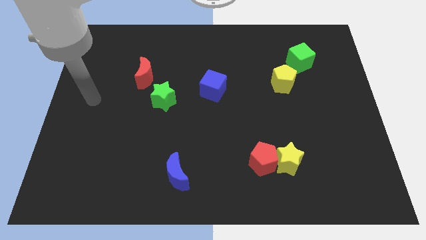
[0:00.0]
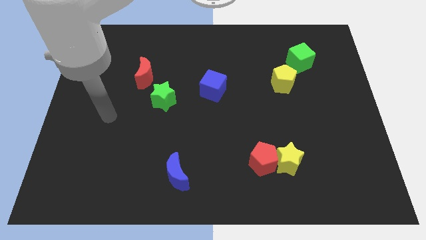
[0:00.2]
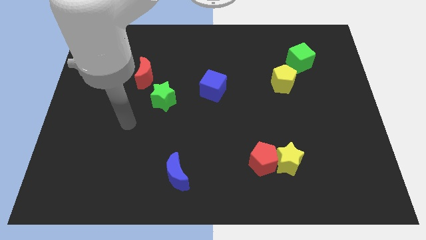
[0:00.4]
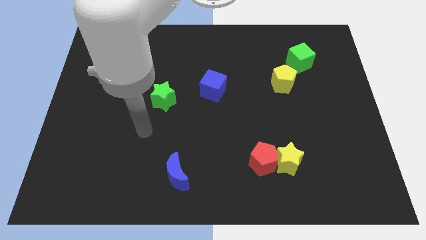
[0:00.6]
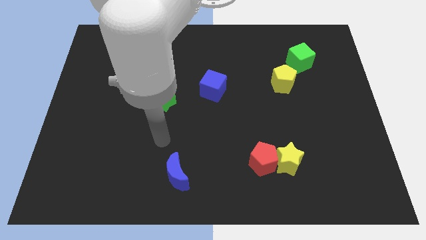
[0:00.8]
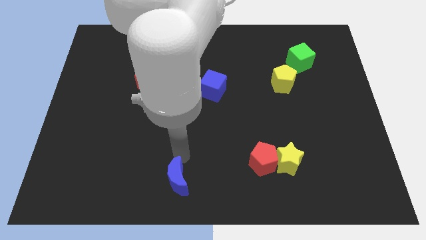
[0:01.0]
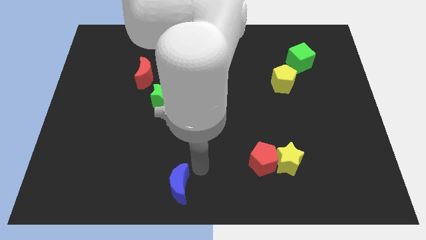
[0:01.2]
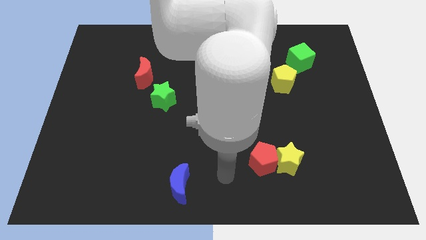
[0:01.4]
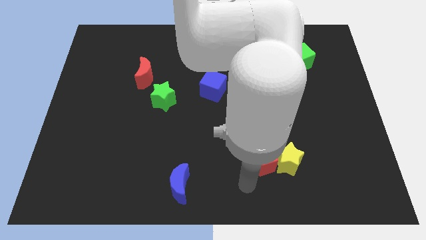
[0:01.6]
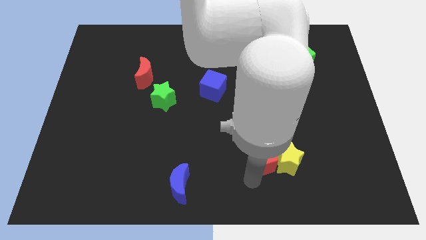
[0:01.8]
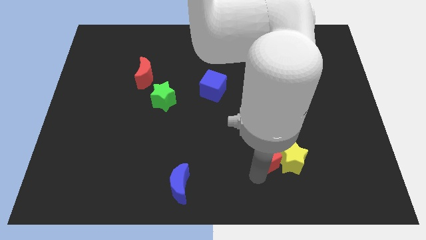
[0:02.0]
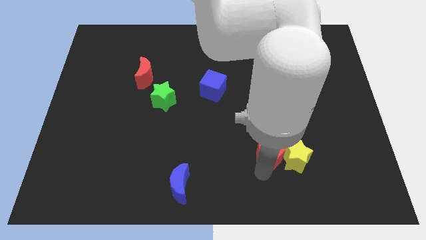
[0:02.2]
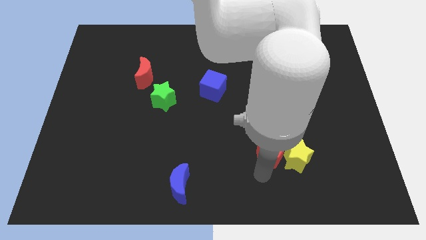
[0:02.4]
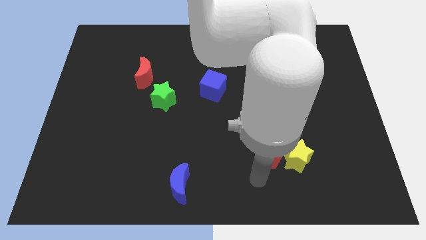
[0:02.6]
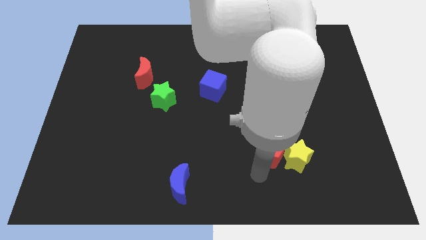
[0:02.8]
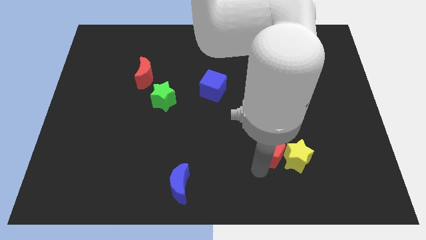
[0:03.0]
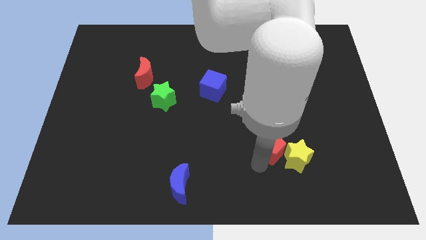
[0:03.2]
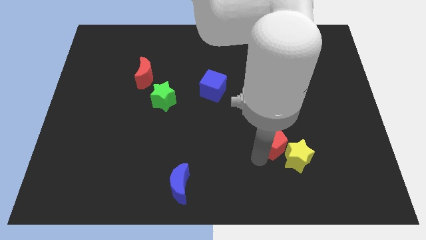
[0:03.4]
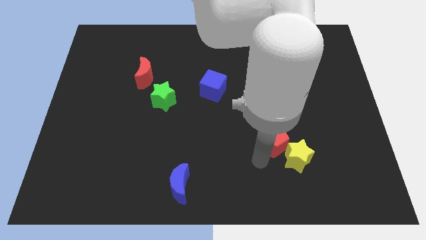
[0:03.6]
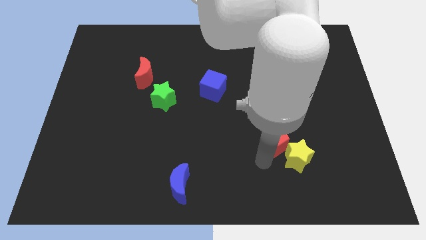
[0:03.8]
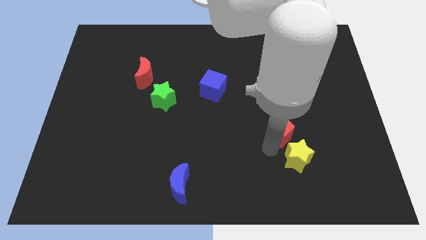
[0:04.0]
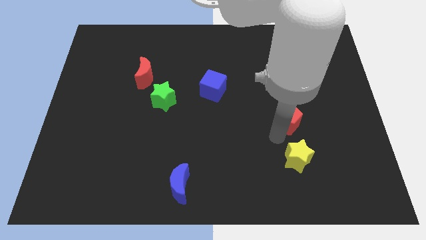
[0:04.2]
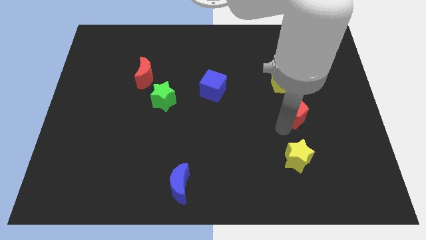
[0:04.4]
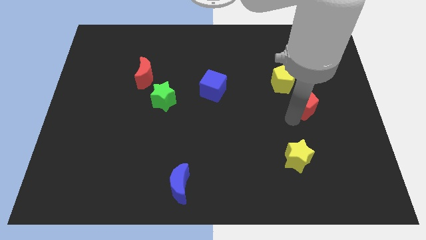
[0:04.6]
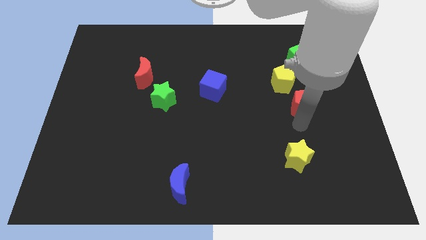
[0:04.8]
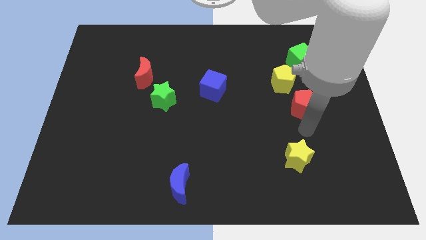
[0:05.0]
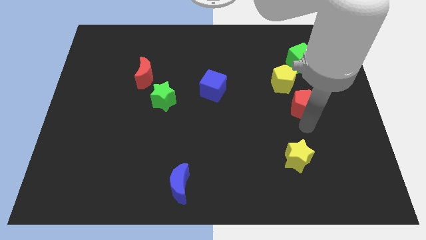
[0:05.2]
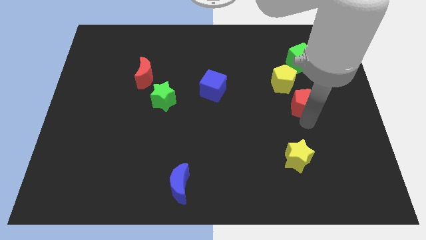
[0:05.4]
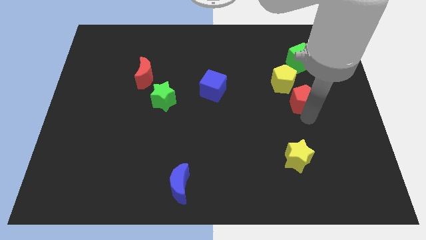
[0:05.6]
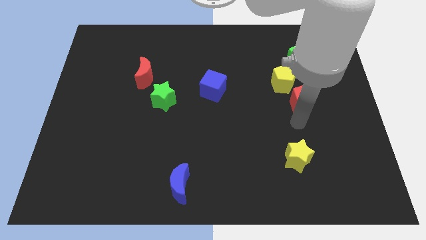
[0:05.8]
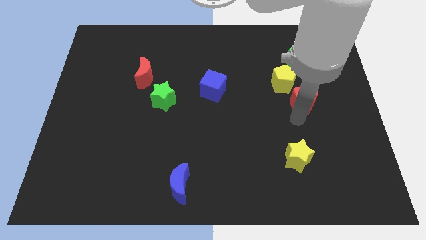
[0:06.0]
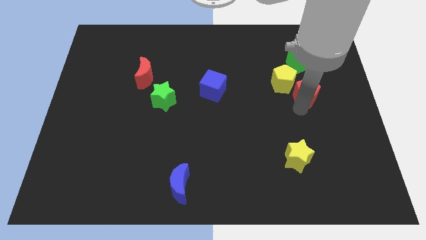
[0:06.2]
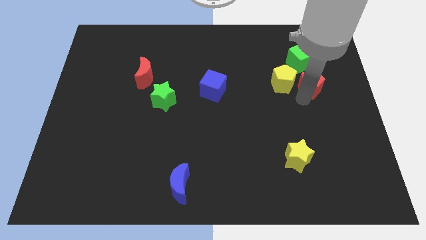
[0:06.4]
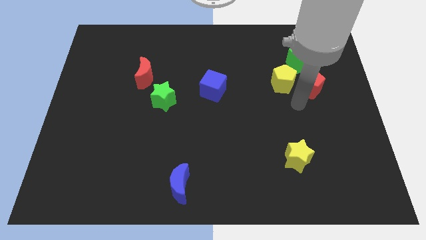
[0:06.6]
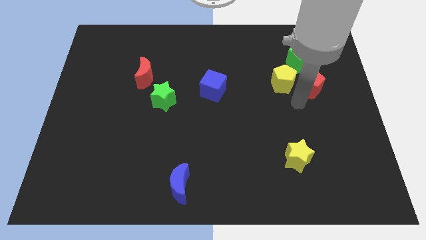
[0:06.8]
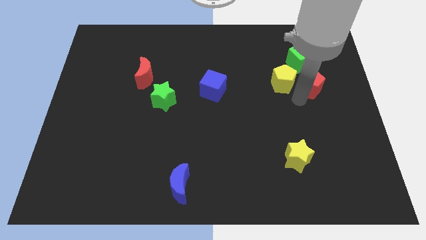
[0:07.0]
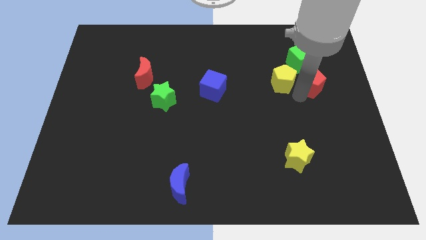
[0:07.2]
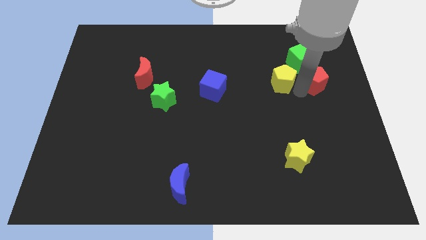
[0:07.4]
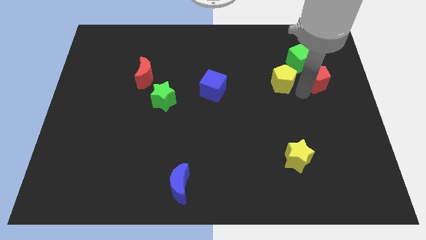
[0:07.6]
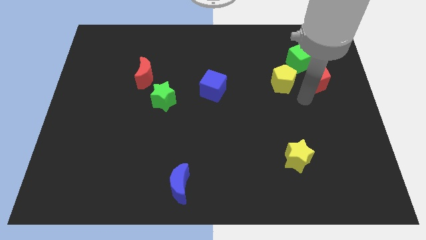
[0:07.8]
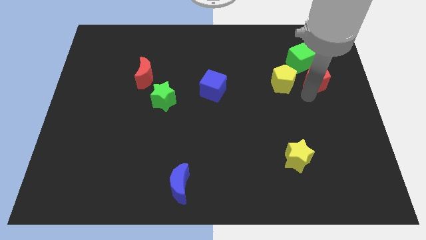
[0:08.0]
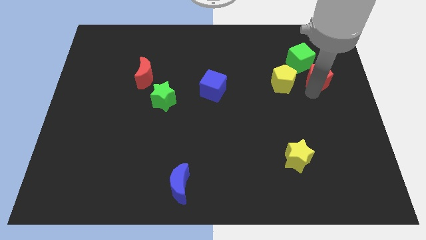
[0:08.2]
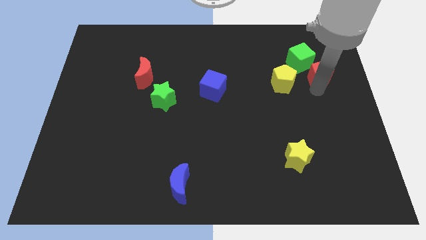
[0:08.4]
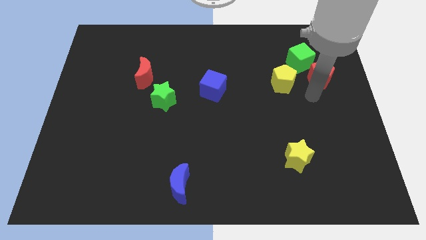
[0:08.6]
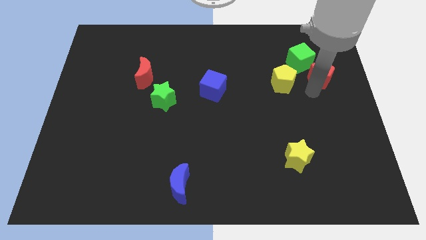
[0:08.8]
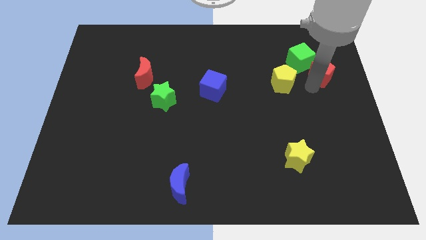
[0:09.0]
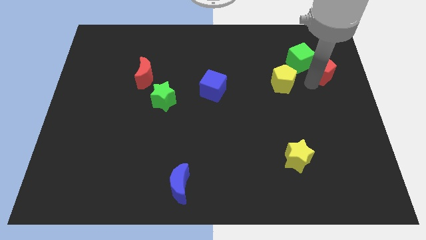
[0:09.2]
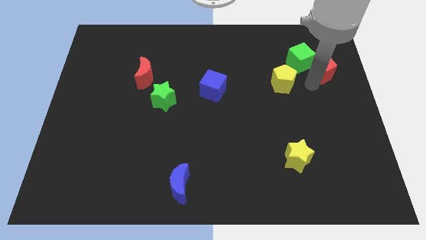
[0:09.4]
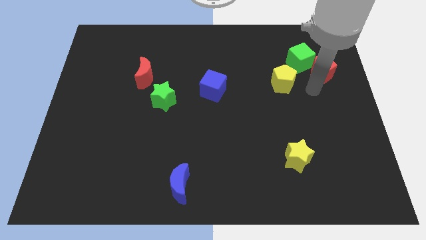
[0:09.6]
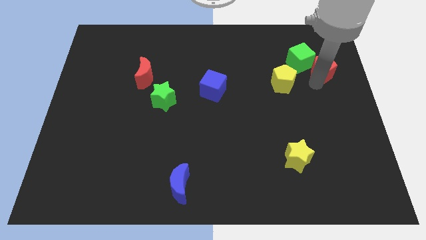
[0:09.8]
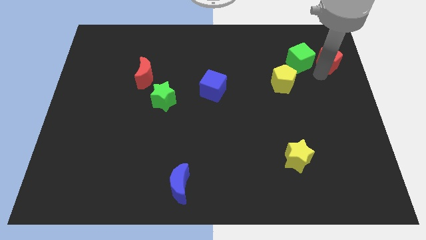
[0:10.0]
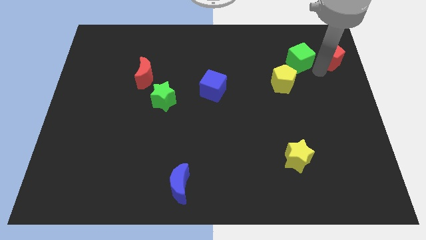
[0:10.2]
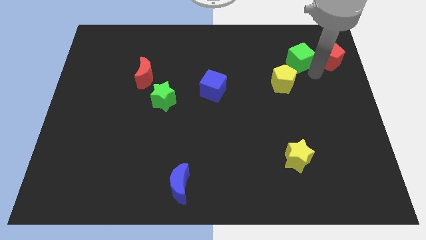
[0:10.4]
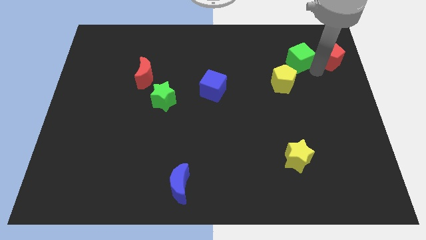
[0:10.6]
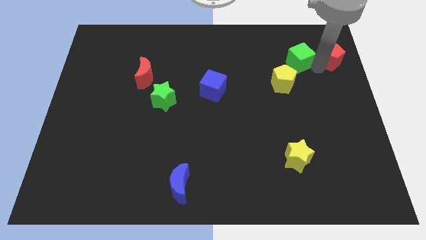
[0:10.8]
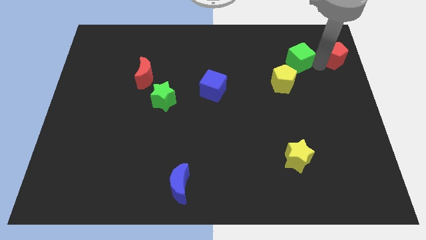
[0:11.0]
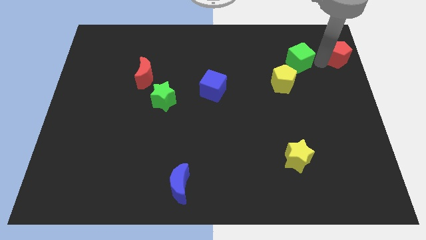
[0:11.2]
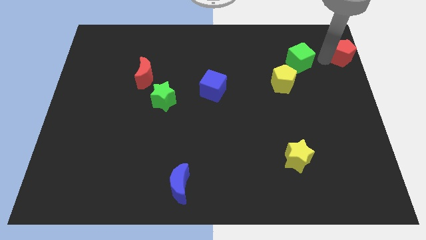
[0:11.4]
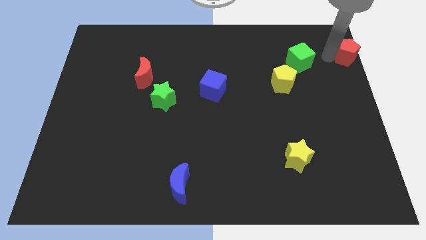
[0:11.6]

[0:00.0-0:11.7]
move the red pentagon to the top right corner

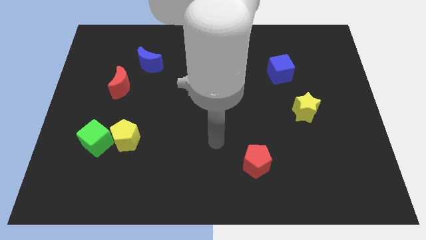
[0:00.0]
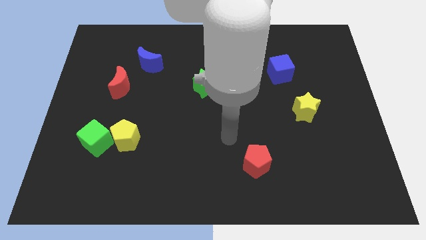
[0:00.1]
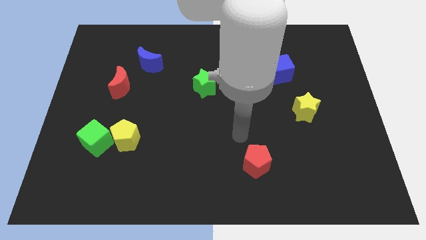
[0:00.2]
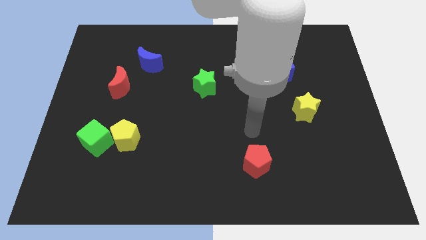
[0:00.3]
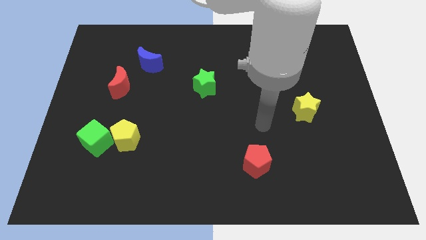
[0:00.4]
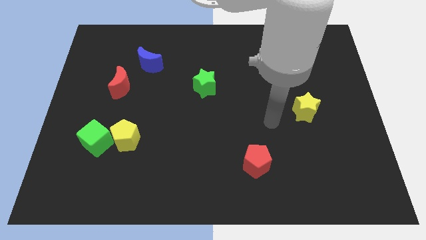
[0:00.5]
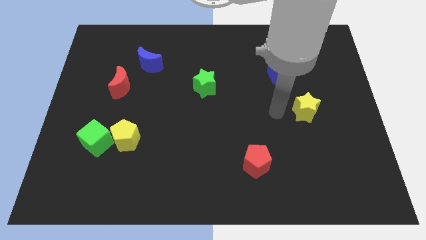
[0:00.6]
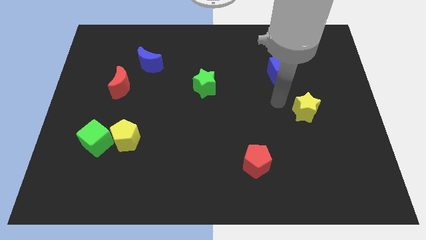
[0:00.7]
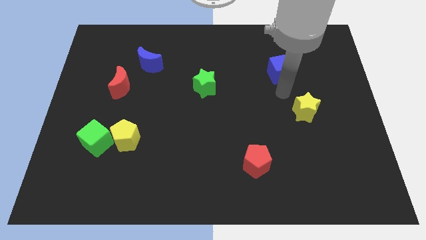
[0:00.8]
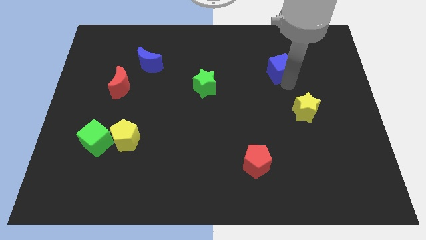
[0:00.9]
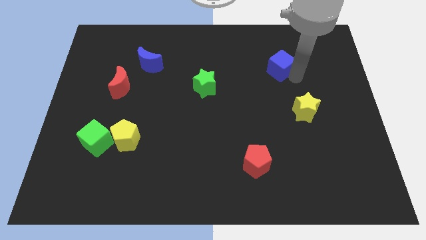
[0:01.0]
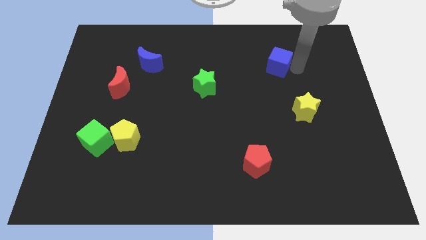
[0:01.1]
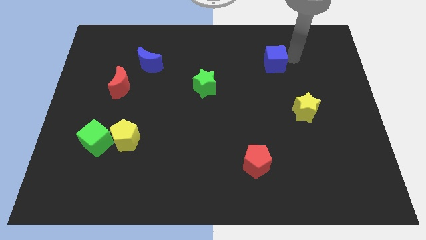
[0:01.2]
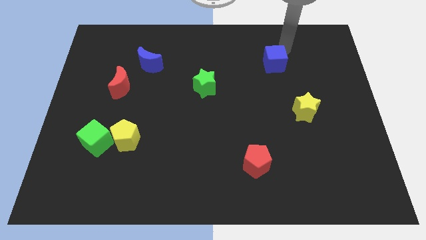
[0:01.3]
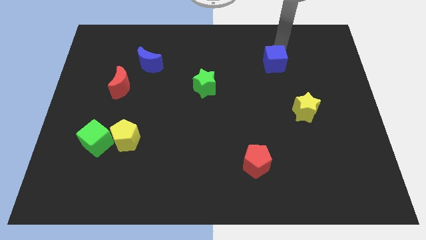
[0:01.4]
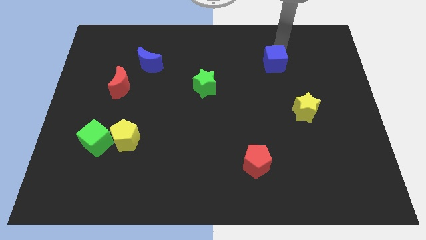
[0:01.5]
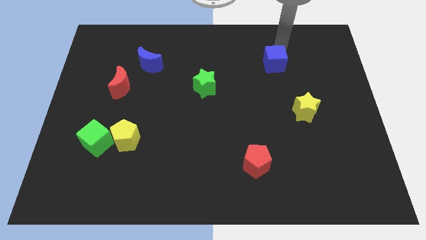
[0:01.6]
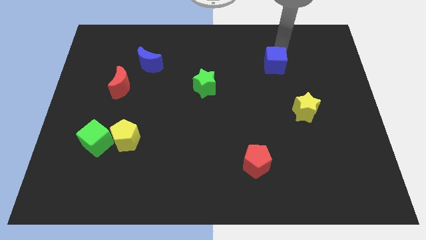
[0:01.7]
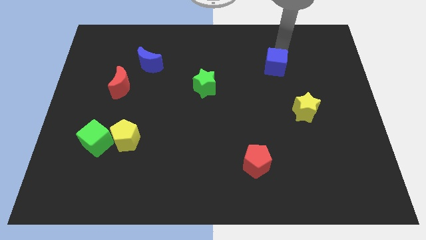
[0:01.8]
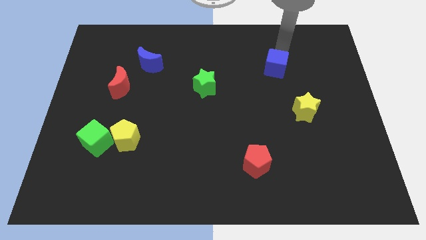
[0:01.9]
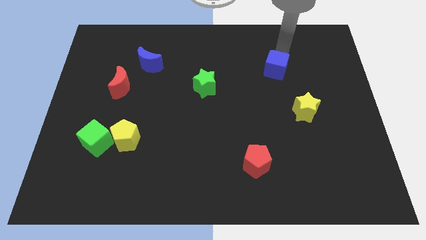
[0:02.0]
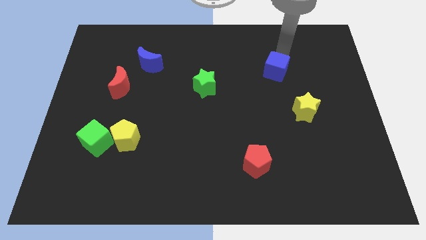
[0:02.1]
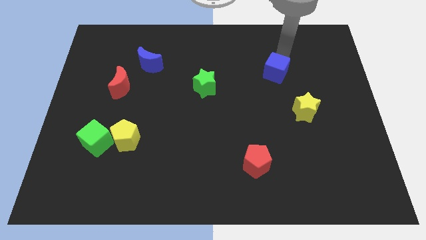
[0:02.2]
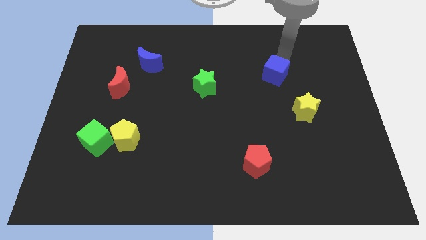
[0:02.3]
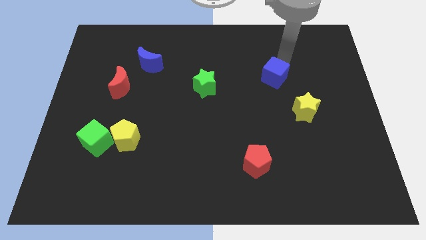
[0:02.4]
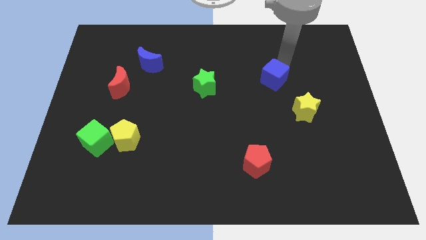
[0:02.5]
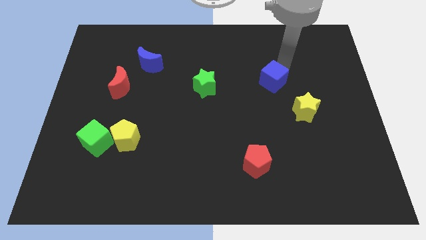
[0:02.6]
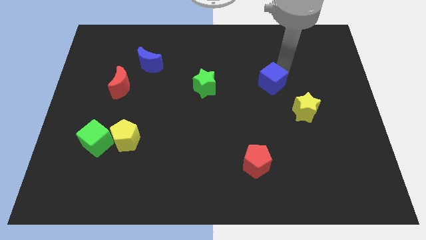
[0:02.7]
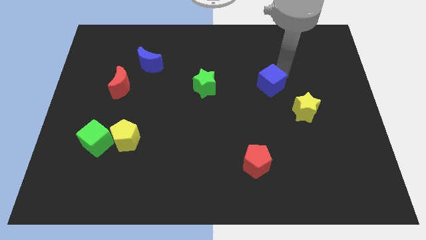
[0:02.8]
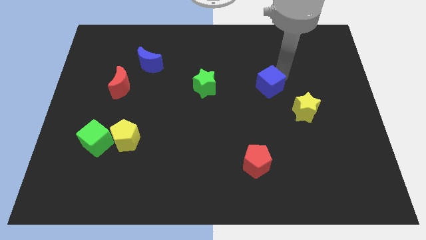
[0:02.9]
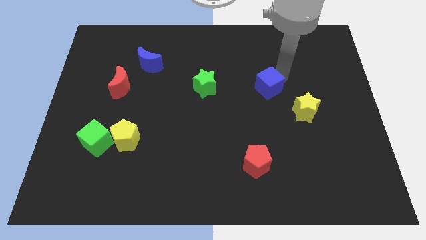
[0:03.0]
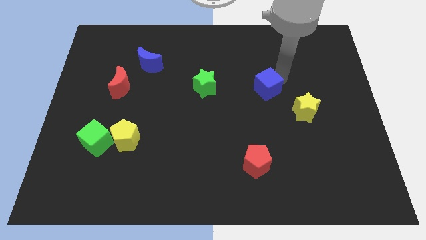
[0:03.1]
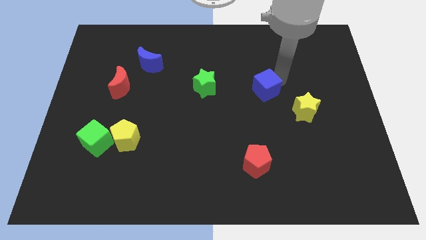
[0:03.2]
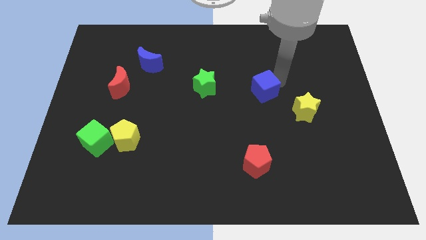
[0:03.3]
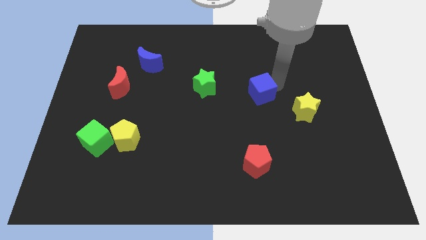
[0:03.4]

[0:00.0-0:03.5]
put the blue cube to the middle
